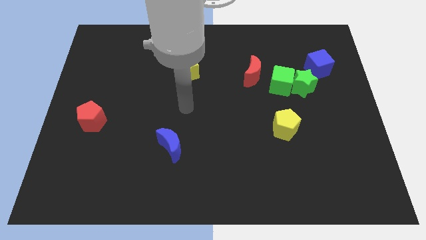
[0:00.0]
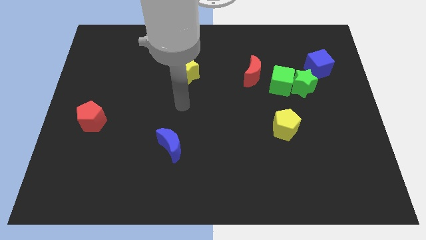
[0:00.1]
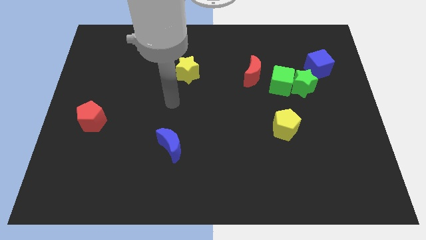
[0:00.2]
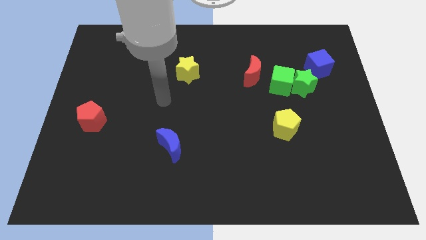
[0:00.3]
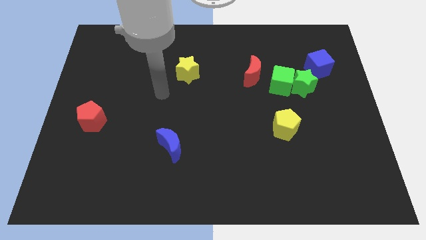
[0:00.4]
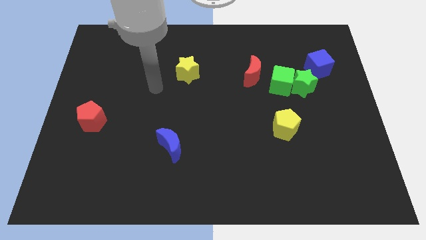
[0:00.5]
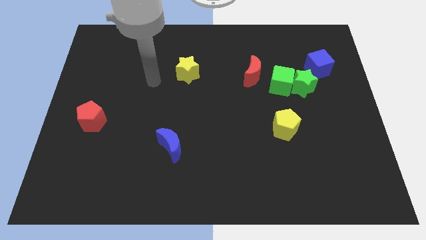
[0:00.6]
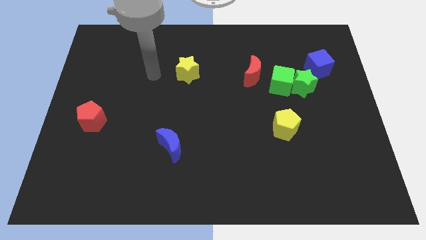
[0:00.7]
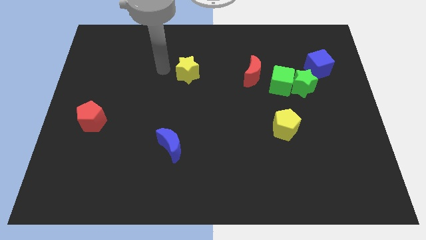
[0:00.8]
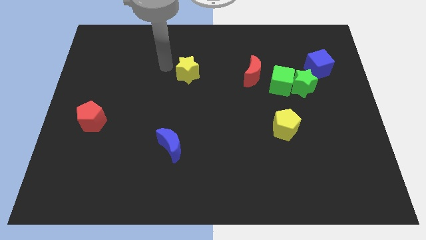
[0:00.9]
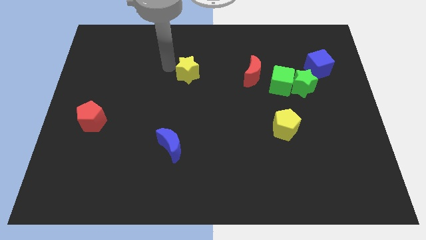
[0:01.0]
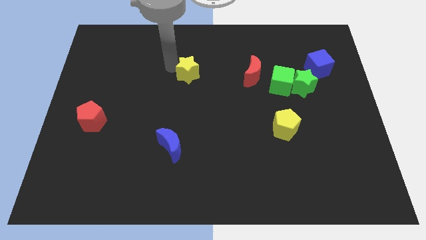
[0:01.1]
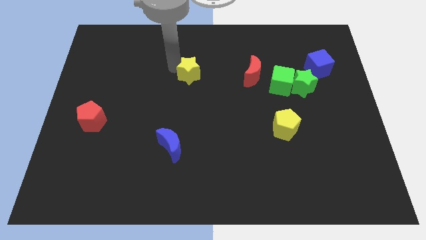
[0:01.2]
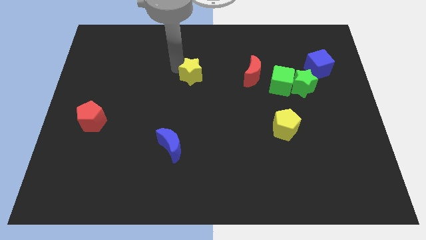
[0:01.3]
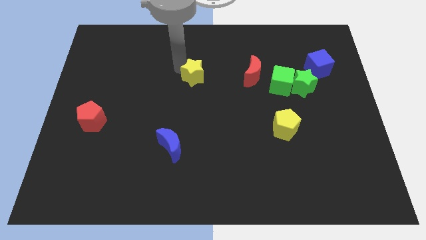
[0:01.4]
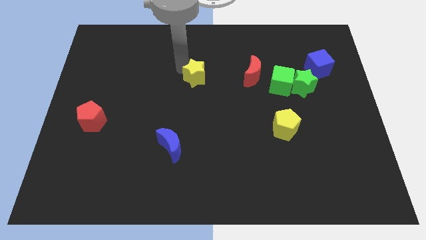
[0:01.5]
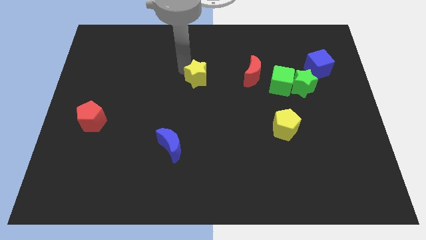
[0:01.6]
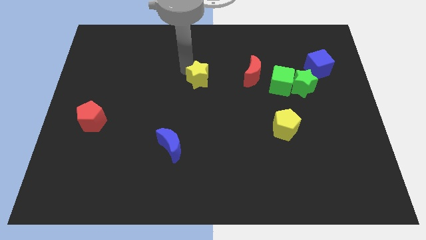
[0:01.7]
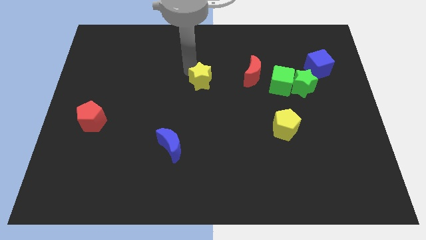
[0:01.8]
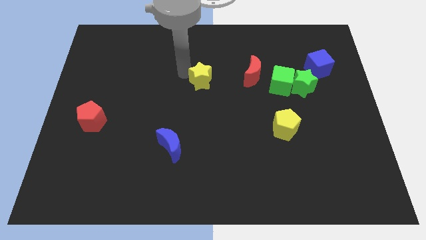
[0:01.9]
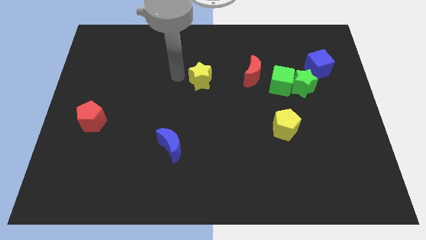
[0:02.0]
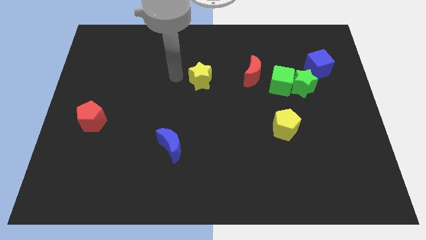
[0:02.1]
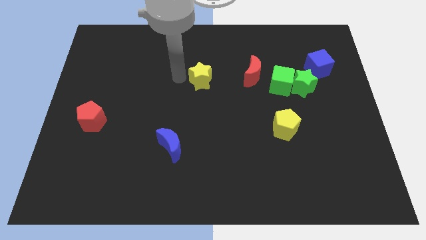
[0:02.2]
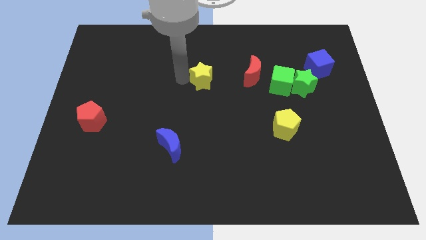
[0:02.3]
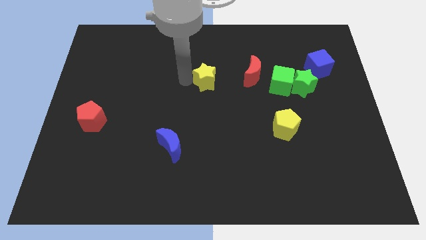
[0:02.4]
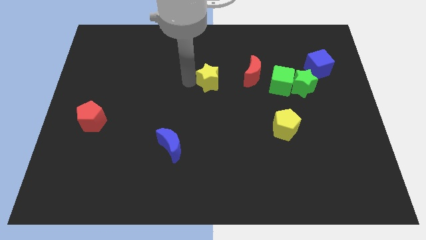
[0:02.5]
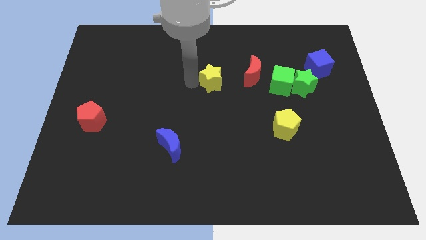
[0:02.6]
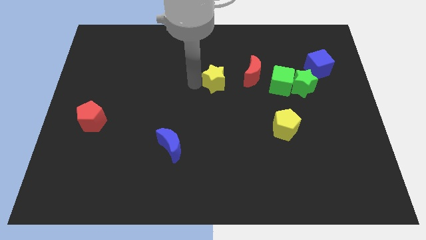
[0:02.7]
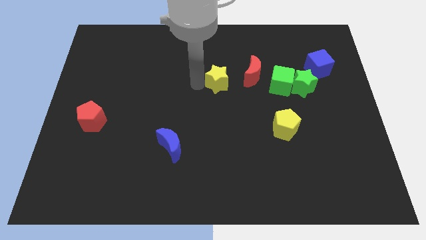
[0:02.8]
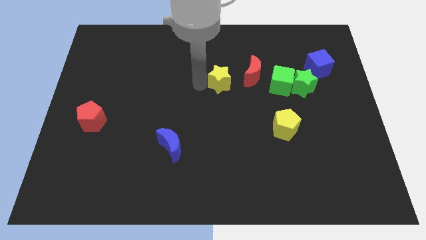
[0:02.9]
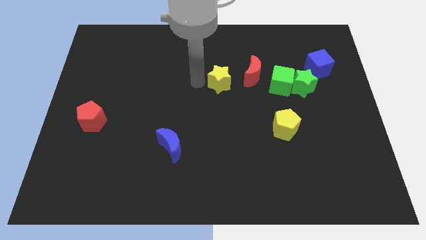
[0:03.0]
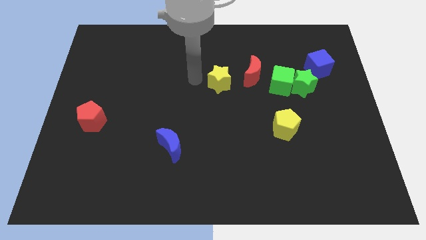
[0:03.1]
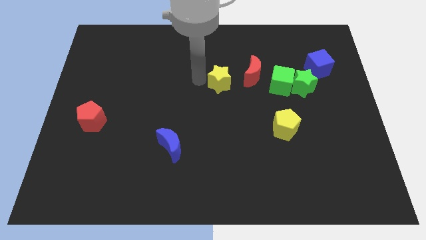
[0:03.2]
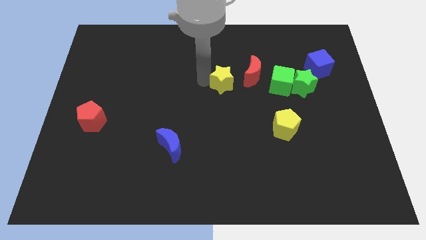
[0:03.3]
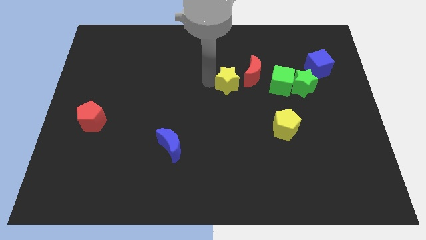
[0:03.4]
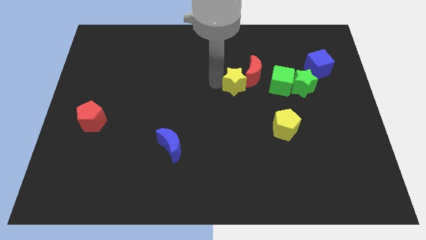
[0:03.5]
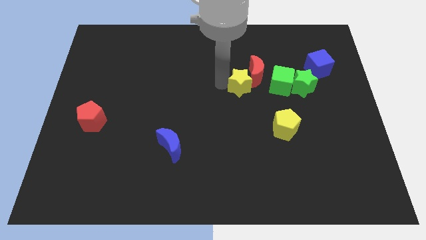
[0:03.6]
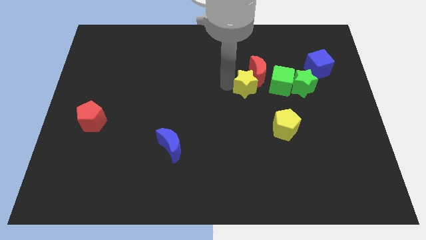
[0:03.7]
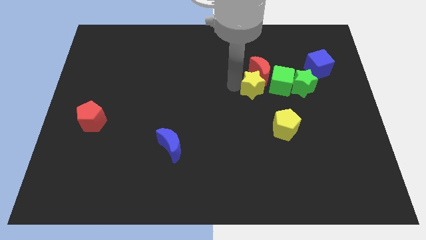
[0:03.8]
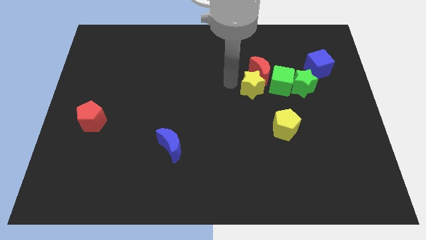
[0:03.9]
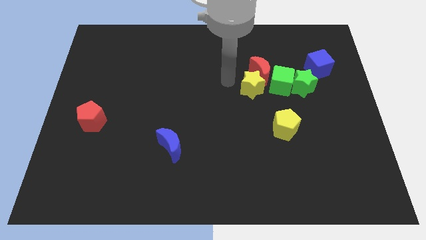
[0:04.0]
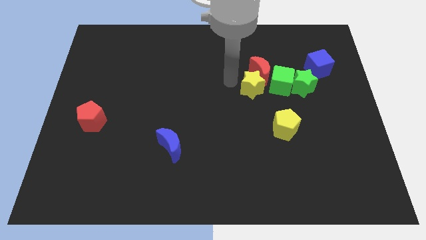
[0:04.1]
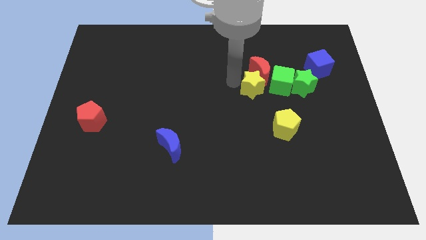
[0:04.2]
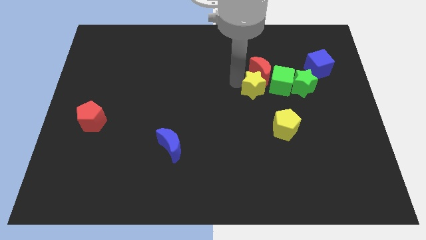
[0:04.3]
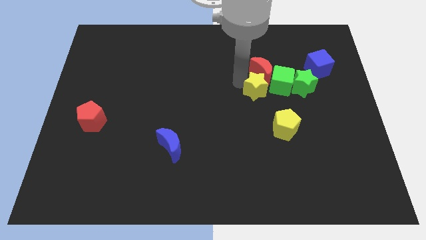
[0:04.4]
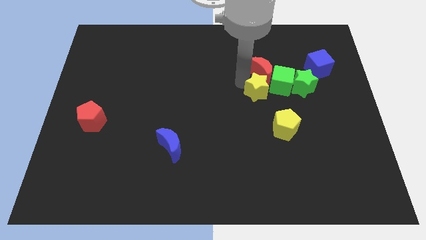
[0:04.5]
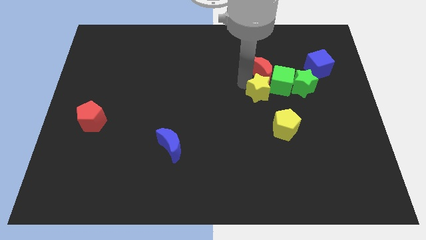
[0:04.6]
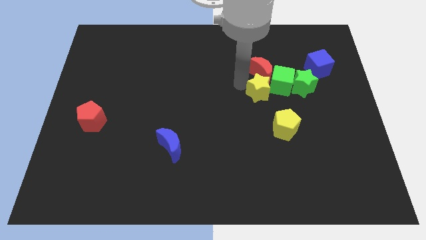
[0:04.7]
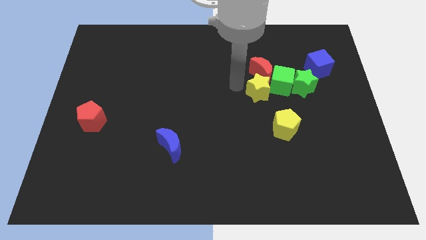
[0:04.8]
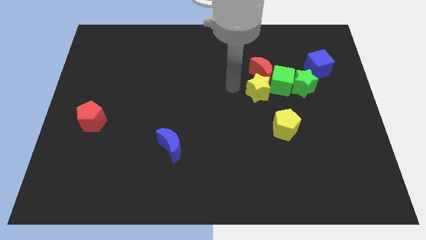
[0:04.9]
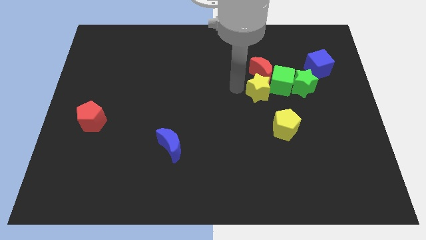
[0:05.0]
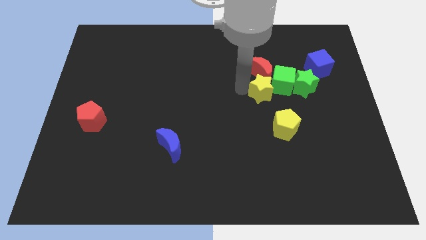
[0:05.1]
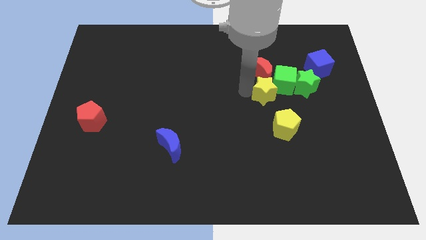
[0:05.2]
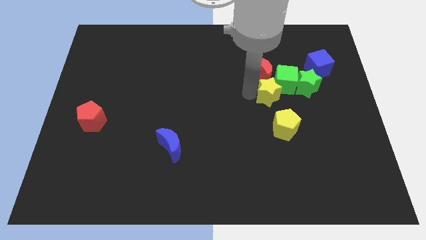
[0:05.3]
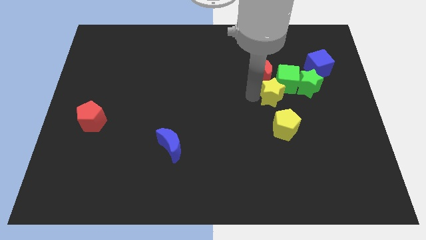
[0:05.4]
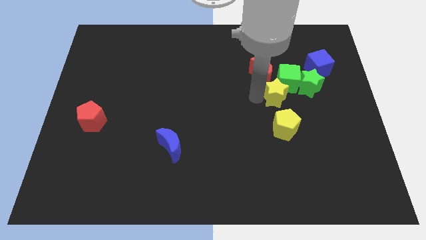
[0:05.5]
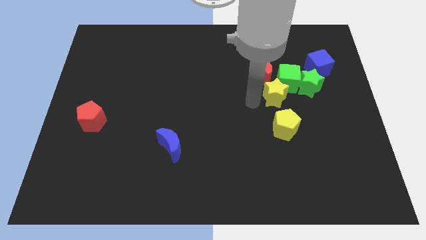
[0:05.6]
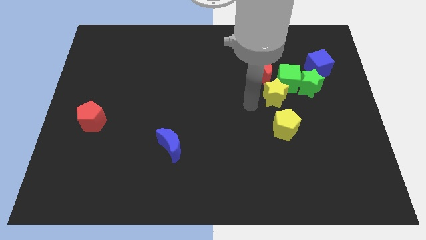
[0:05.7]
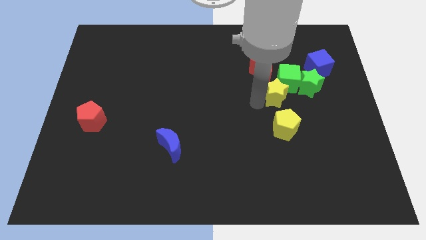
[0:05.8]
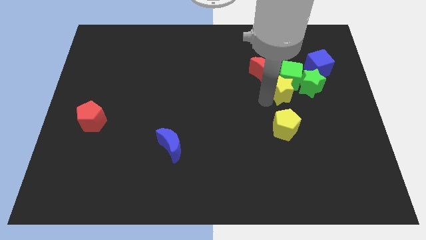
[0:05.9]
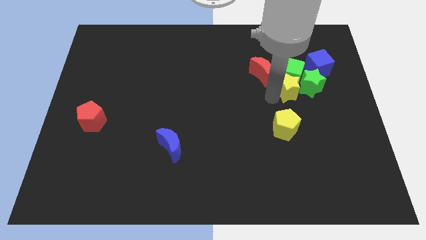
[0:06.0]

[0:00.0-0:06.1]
move the yellow star towards the green star

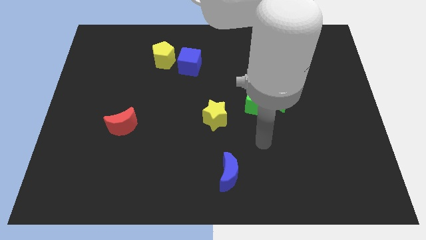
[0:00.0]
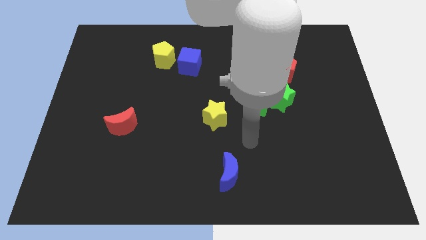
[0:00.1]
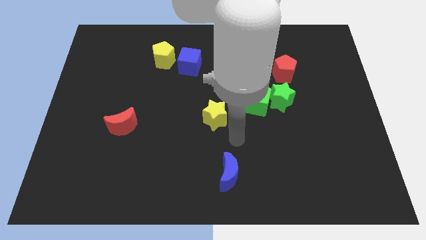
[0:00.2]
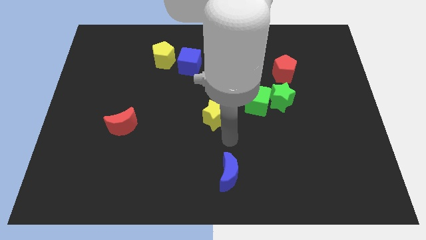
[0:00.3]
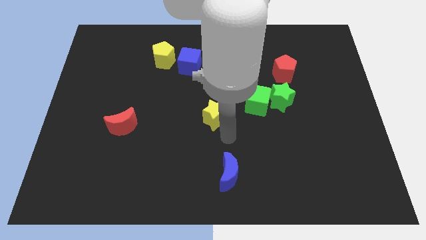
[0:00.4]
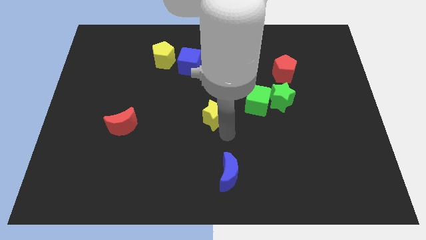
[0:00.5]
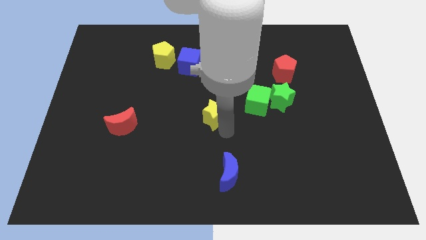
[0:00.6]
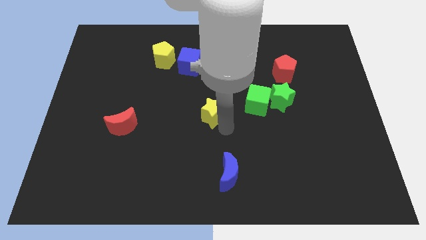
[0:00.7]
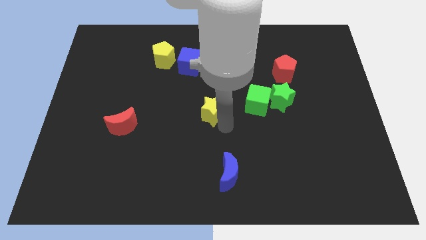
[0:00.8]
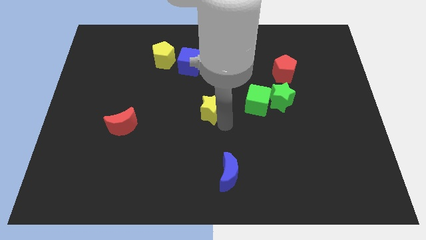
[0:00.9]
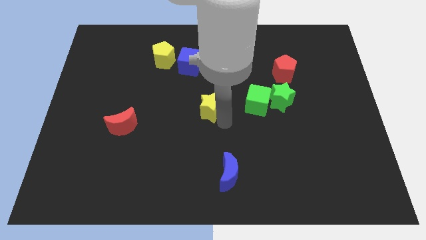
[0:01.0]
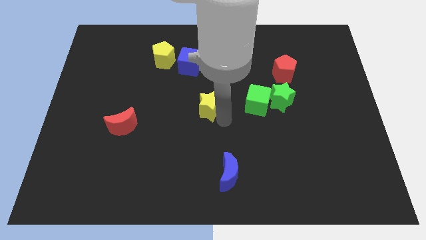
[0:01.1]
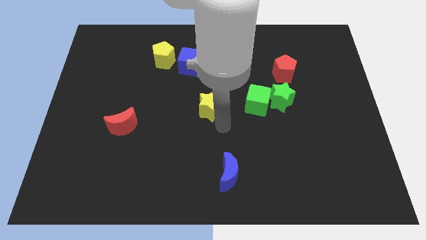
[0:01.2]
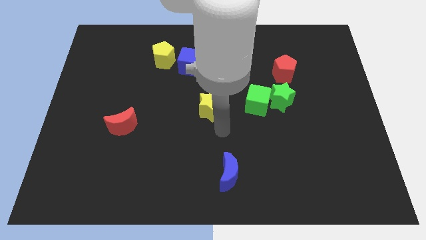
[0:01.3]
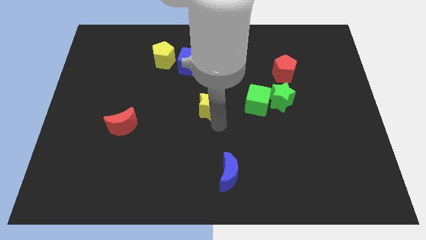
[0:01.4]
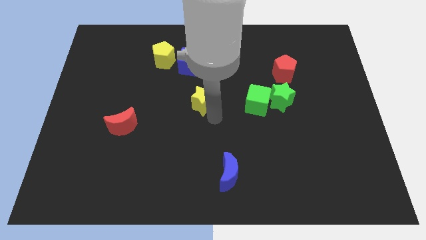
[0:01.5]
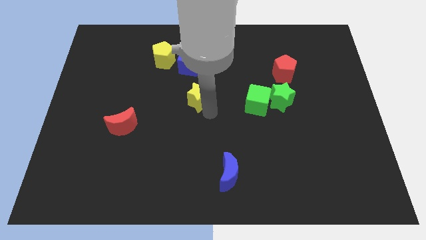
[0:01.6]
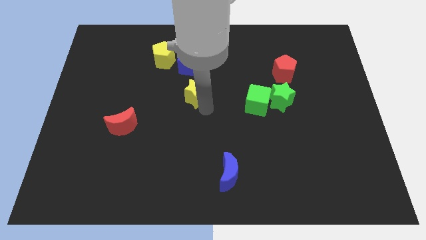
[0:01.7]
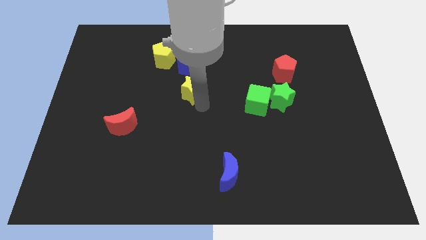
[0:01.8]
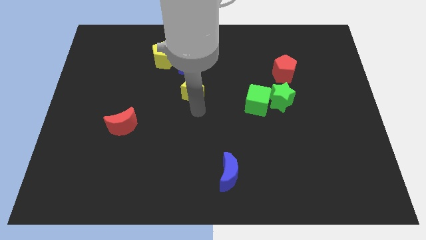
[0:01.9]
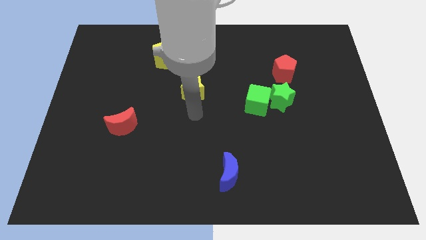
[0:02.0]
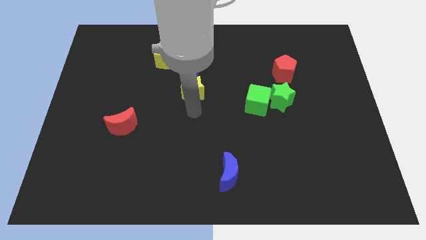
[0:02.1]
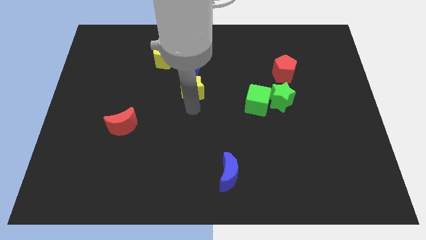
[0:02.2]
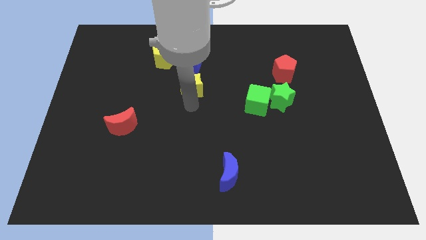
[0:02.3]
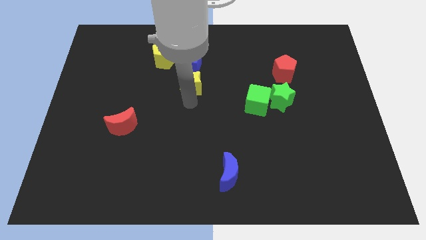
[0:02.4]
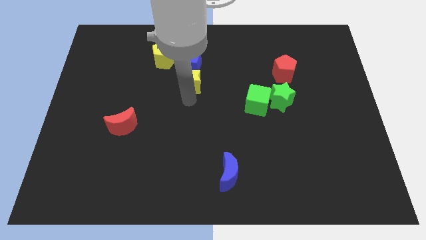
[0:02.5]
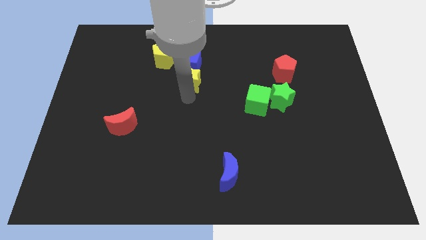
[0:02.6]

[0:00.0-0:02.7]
move the yellow star towards the blue cube
